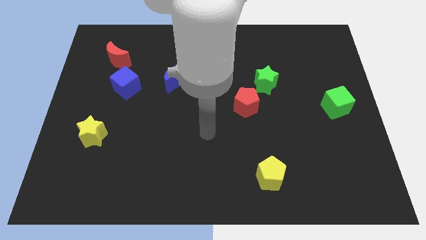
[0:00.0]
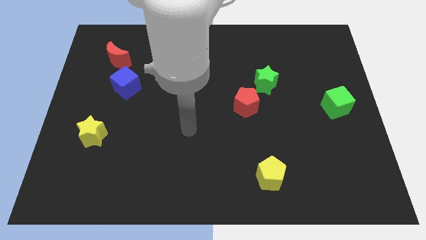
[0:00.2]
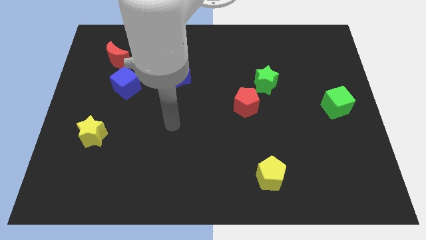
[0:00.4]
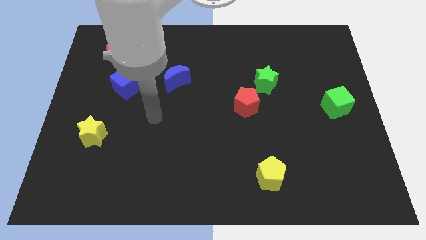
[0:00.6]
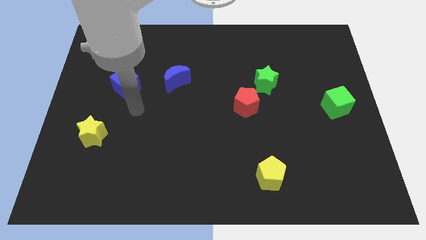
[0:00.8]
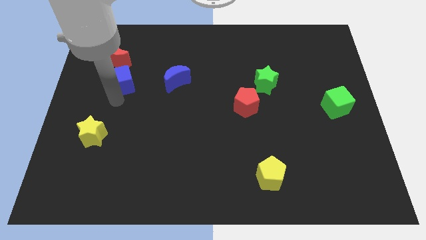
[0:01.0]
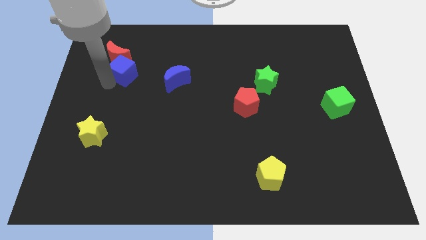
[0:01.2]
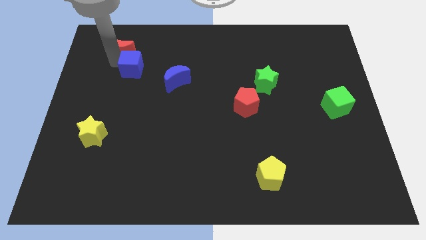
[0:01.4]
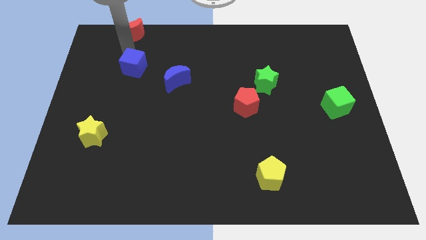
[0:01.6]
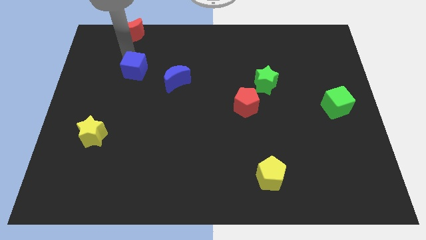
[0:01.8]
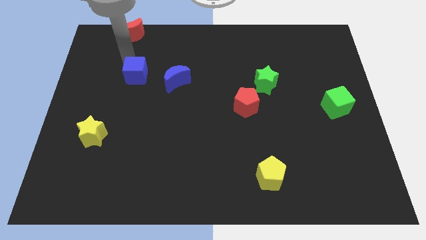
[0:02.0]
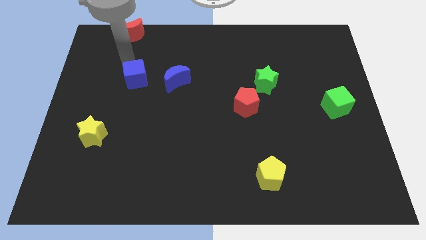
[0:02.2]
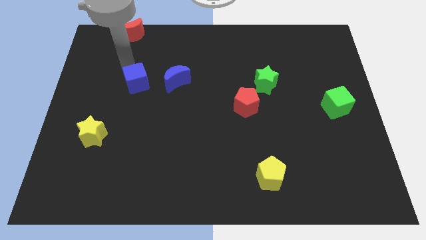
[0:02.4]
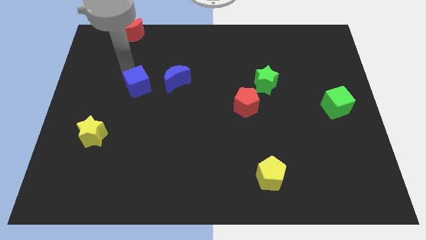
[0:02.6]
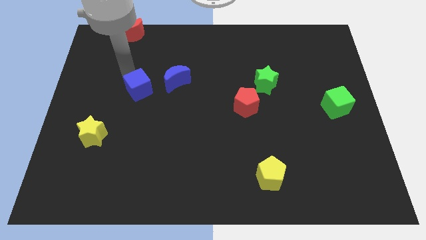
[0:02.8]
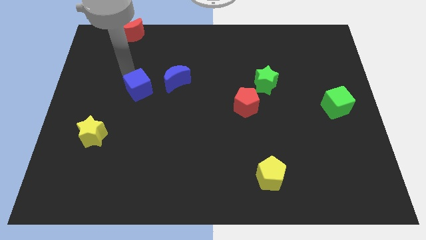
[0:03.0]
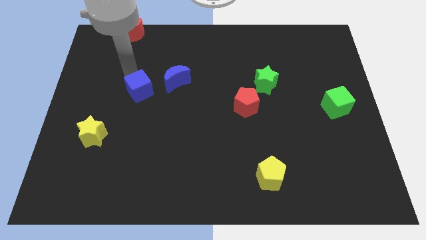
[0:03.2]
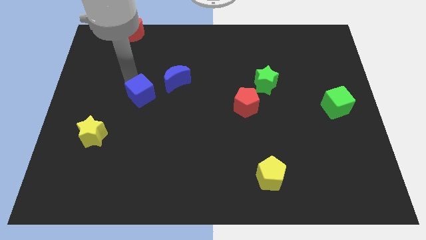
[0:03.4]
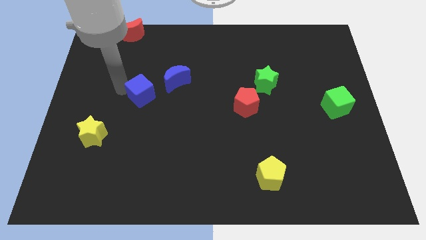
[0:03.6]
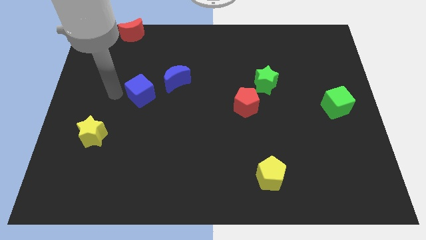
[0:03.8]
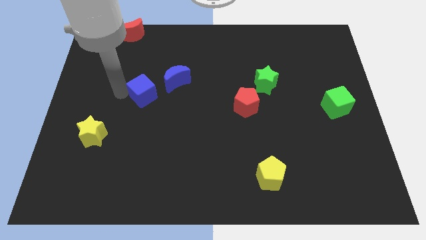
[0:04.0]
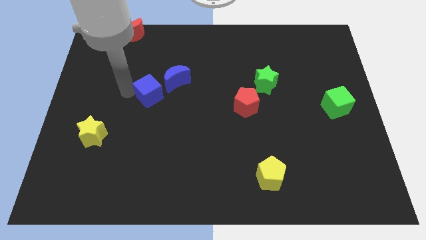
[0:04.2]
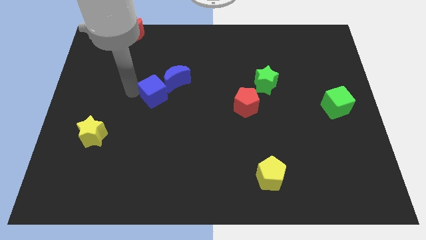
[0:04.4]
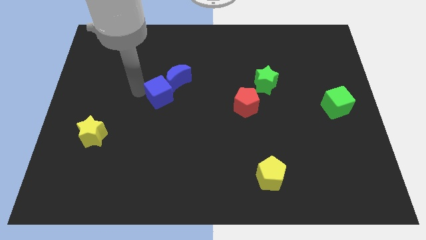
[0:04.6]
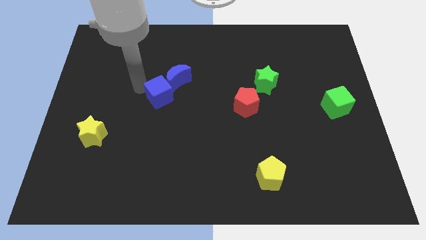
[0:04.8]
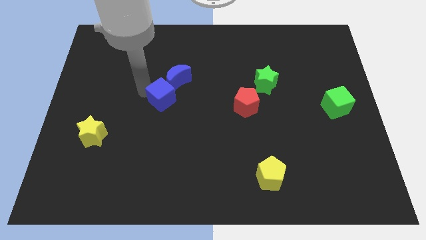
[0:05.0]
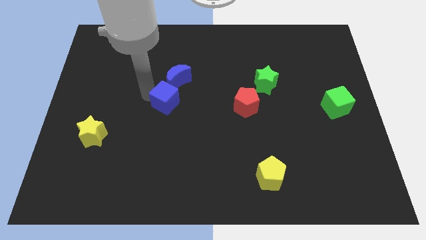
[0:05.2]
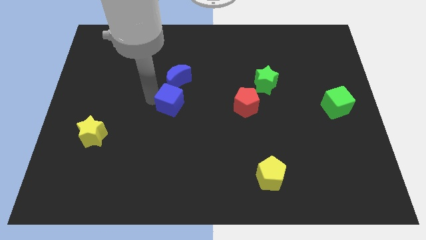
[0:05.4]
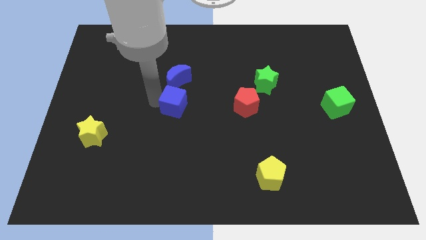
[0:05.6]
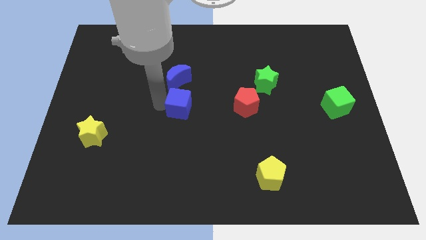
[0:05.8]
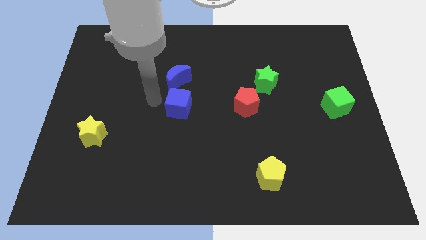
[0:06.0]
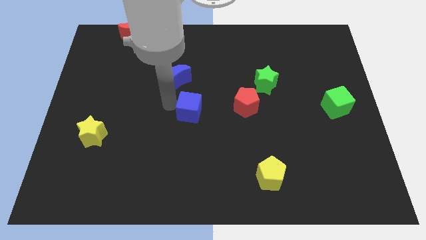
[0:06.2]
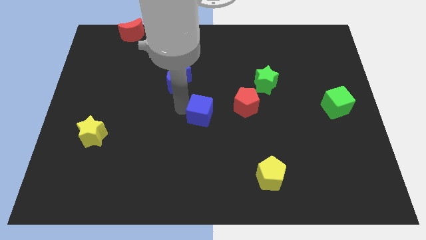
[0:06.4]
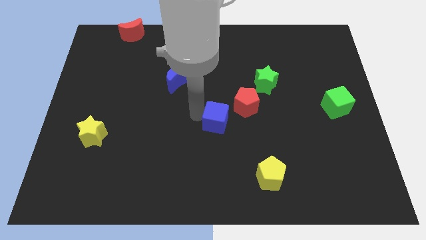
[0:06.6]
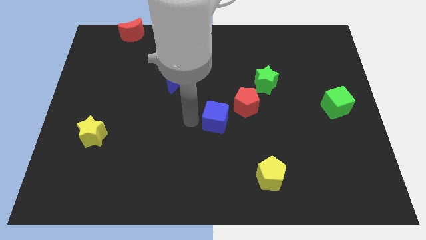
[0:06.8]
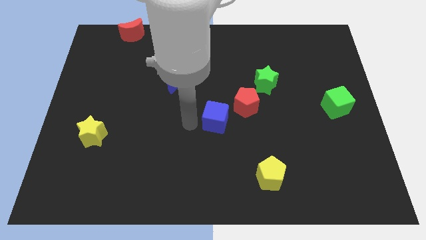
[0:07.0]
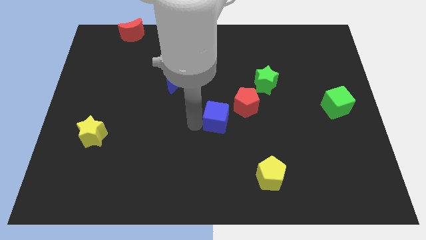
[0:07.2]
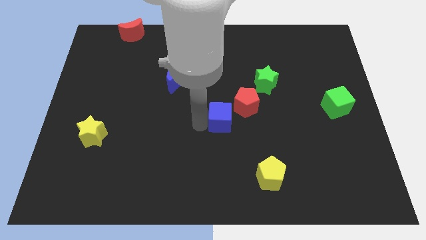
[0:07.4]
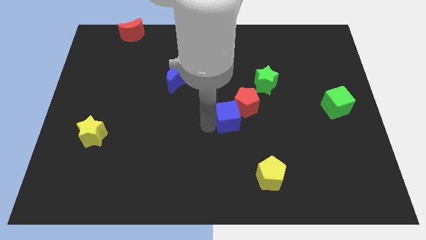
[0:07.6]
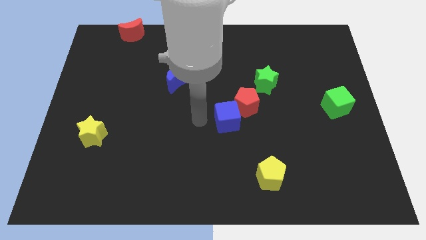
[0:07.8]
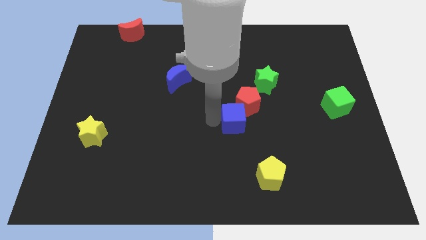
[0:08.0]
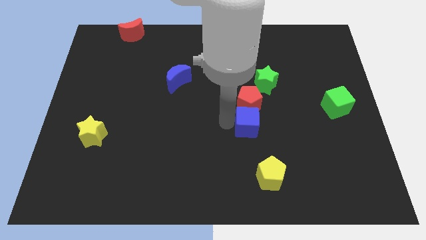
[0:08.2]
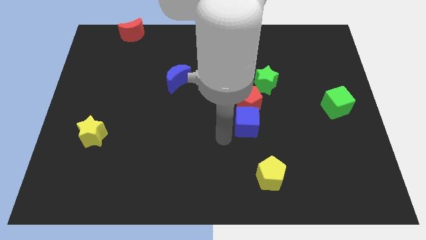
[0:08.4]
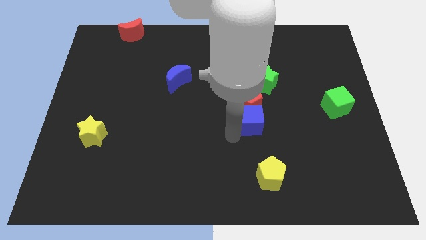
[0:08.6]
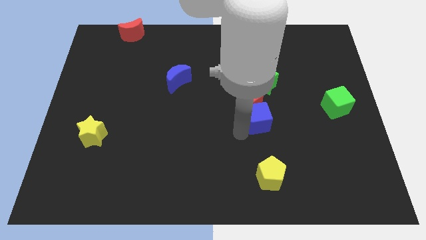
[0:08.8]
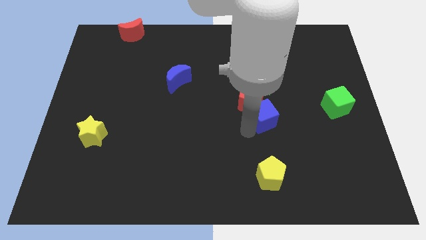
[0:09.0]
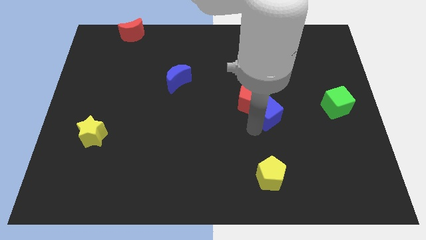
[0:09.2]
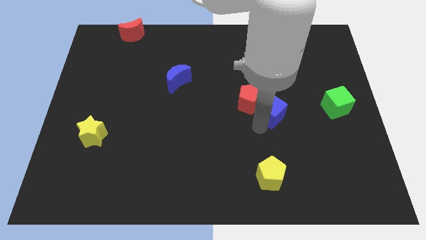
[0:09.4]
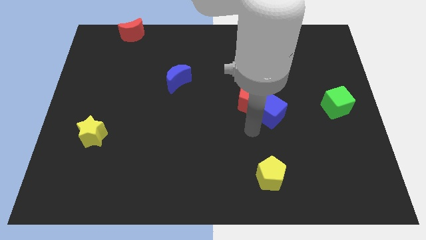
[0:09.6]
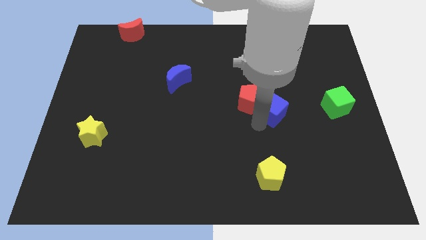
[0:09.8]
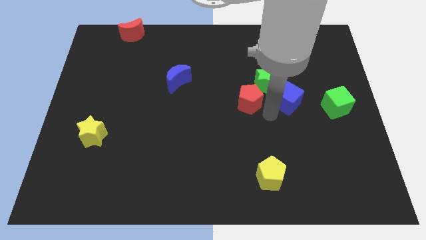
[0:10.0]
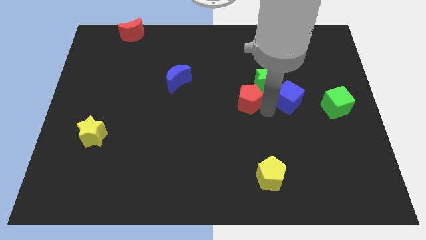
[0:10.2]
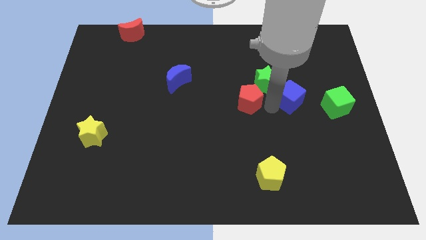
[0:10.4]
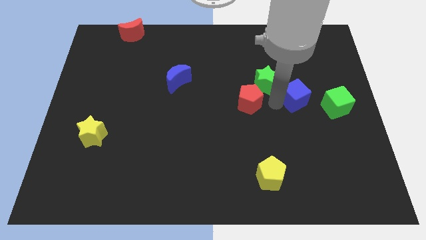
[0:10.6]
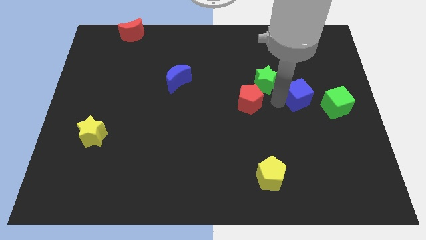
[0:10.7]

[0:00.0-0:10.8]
slide the blue cube to the top left of the green cube

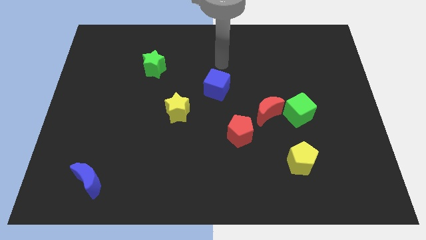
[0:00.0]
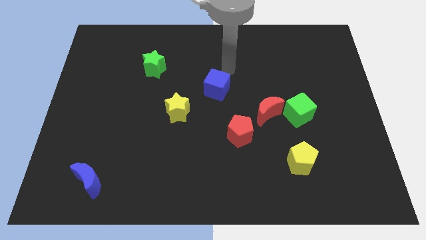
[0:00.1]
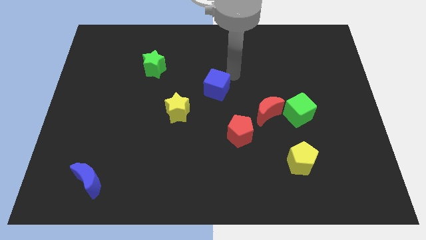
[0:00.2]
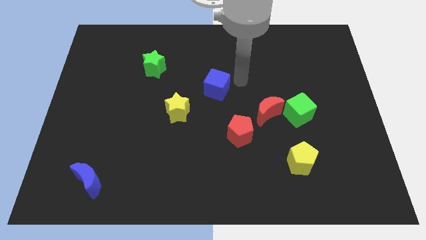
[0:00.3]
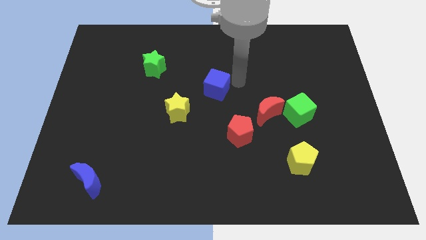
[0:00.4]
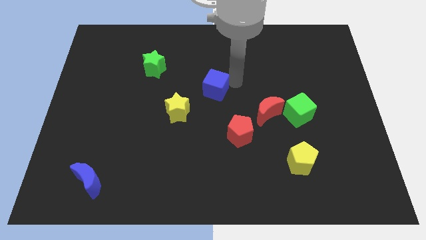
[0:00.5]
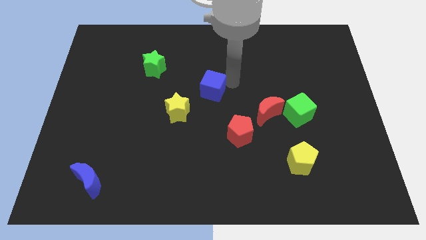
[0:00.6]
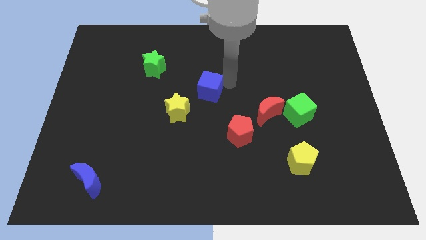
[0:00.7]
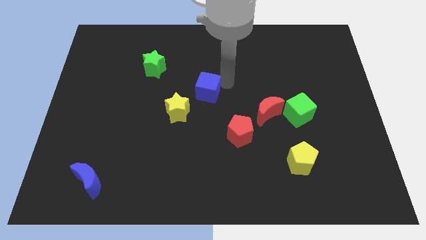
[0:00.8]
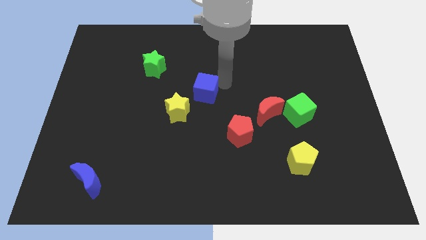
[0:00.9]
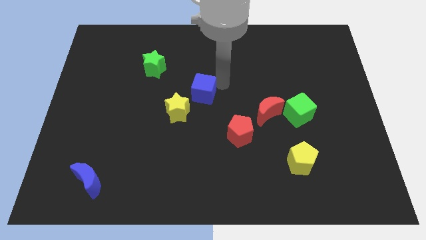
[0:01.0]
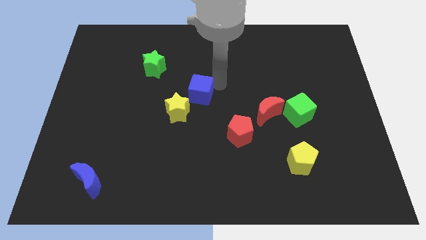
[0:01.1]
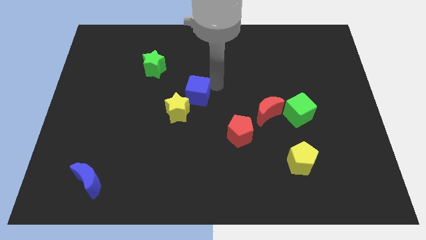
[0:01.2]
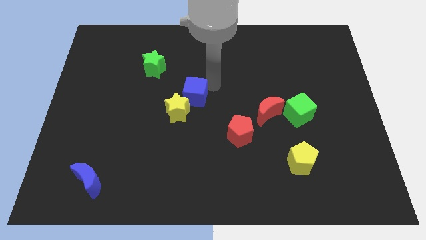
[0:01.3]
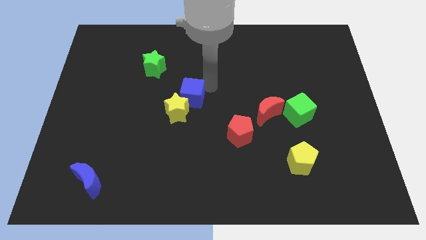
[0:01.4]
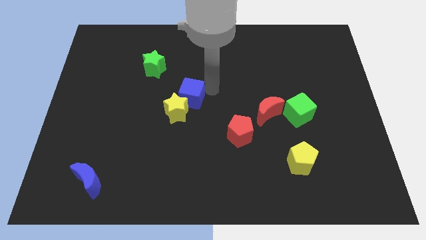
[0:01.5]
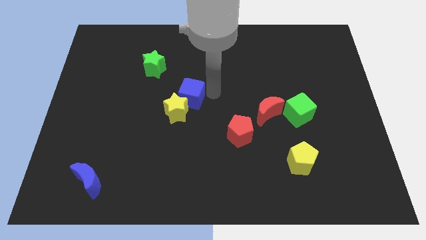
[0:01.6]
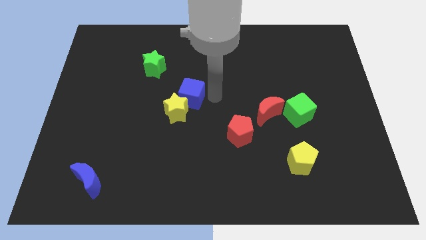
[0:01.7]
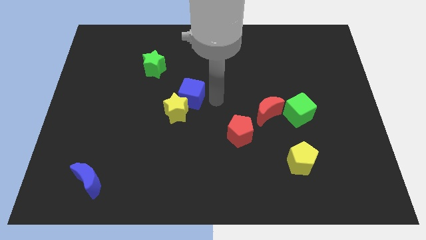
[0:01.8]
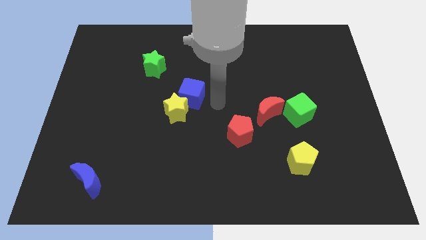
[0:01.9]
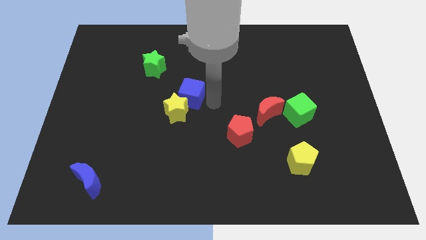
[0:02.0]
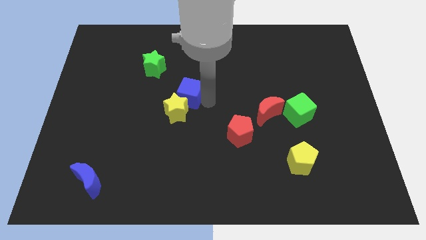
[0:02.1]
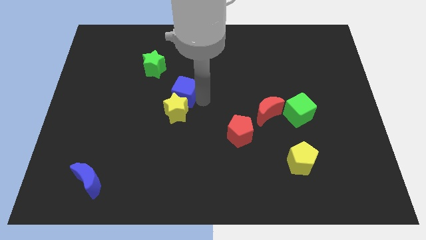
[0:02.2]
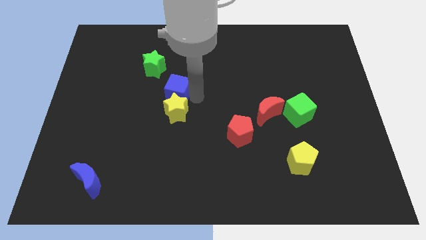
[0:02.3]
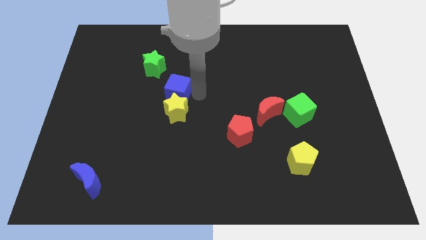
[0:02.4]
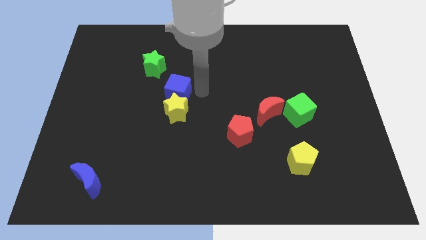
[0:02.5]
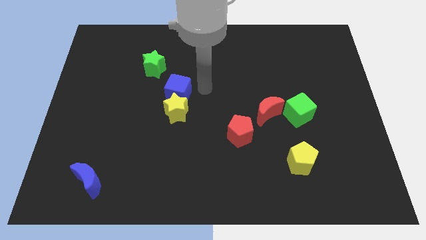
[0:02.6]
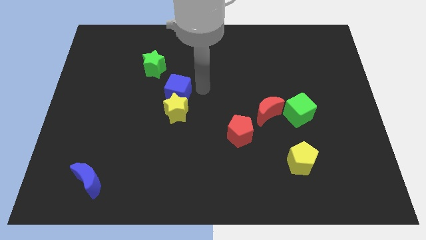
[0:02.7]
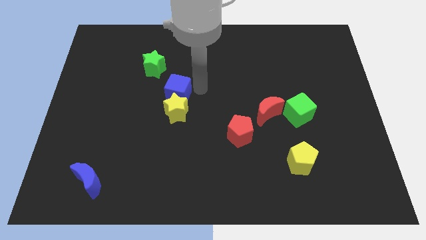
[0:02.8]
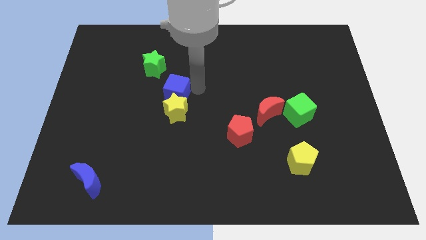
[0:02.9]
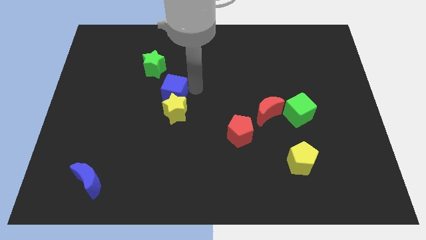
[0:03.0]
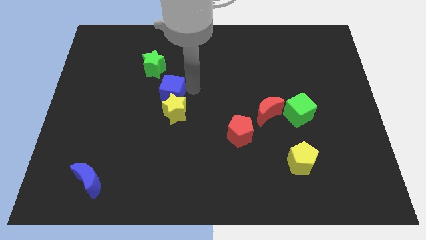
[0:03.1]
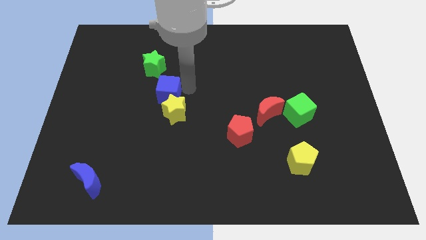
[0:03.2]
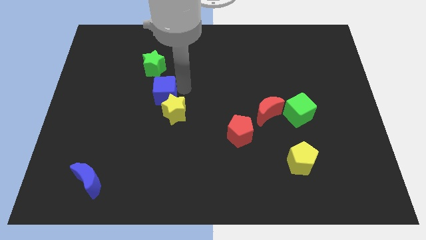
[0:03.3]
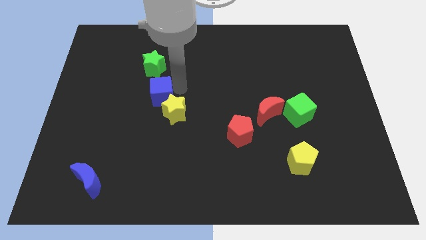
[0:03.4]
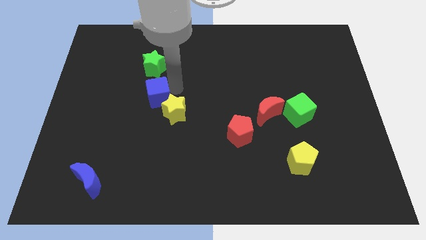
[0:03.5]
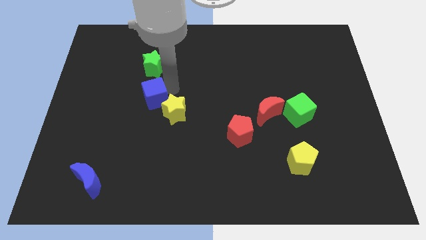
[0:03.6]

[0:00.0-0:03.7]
push the blue cube just left of the yellow star
